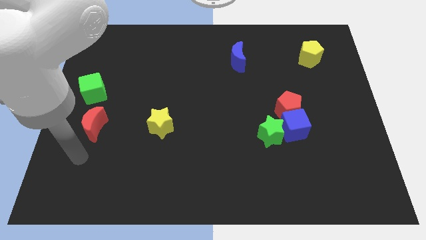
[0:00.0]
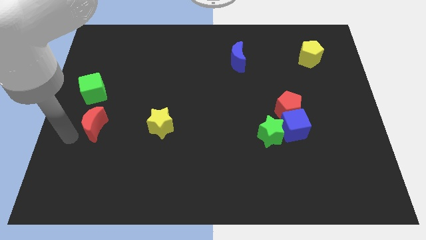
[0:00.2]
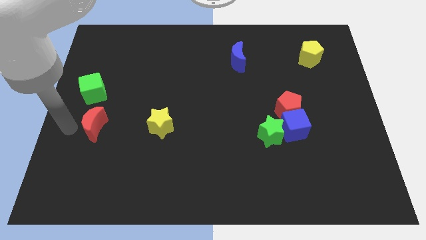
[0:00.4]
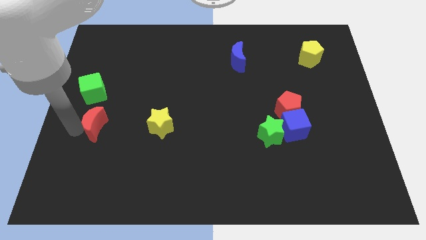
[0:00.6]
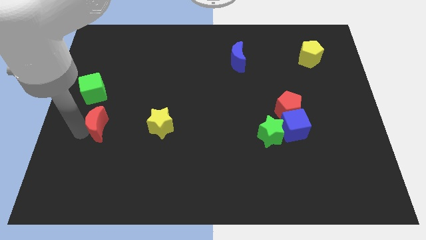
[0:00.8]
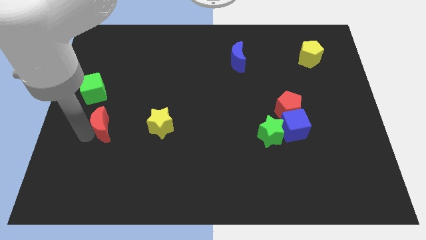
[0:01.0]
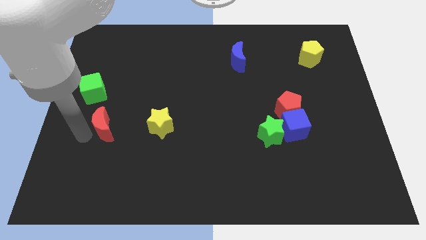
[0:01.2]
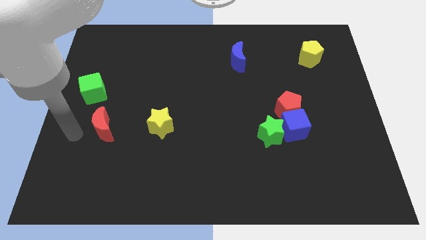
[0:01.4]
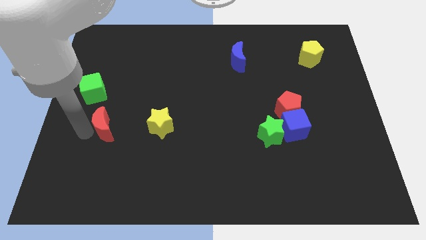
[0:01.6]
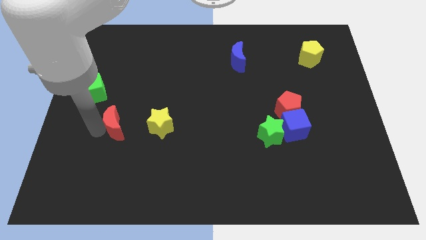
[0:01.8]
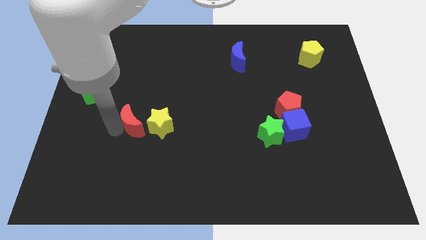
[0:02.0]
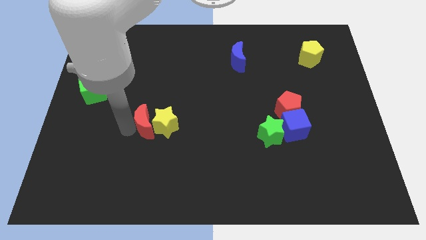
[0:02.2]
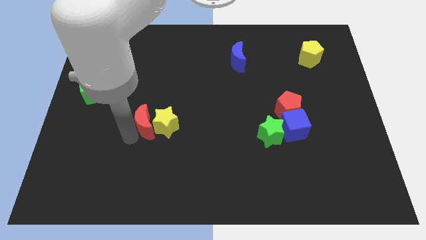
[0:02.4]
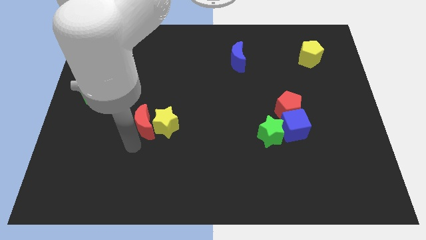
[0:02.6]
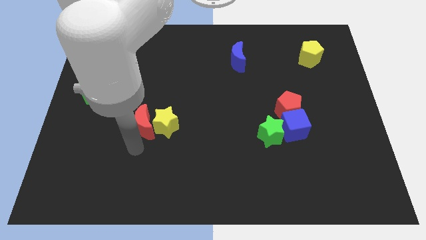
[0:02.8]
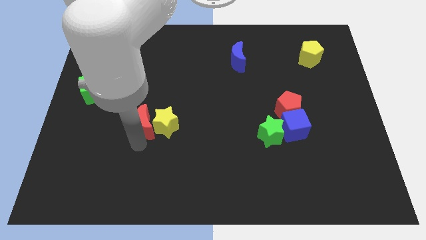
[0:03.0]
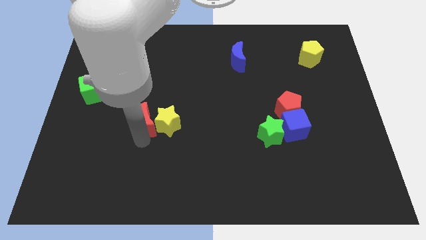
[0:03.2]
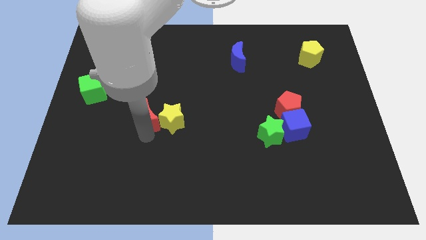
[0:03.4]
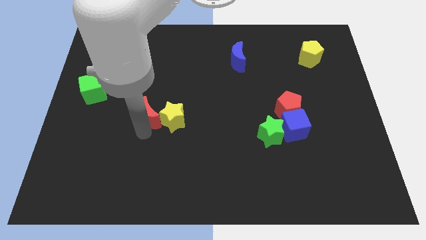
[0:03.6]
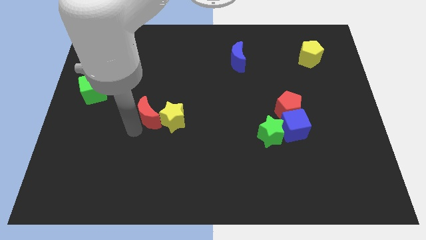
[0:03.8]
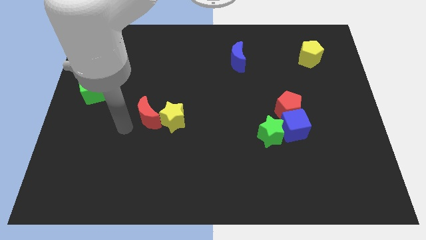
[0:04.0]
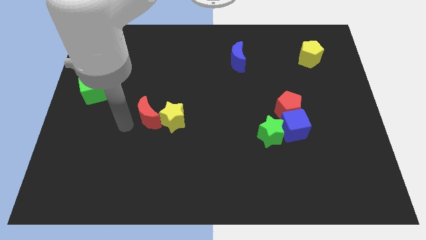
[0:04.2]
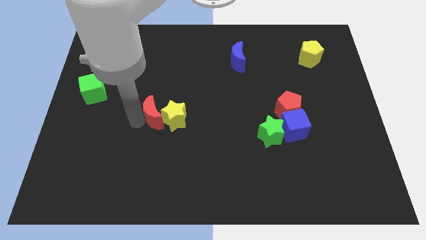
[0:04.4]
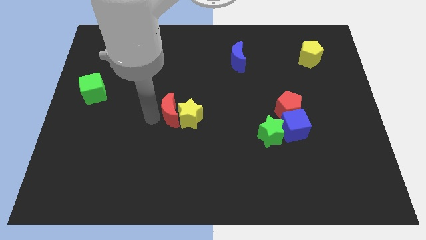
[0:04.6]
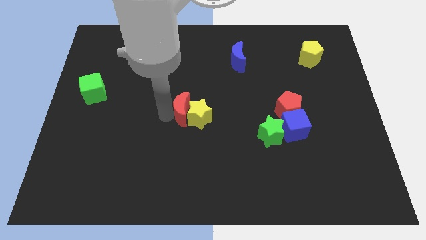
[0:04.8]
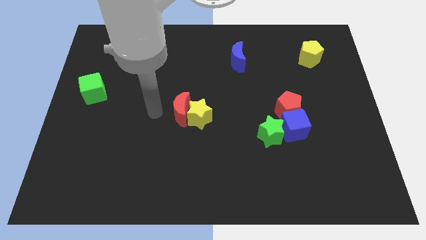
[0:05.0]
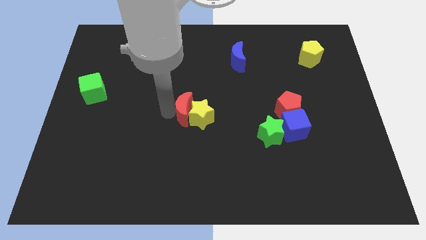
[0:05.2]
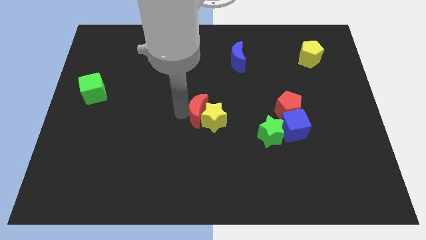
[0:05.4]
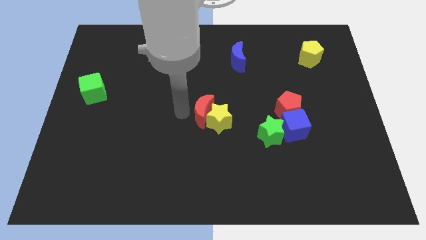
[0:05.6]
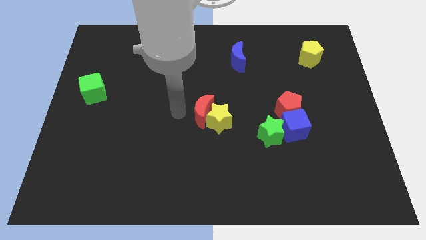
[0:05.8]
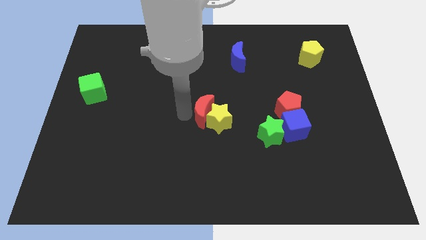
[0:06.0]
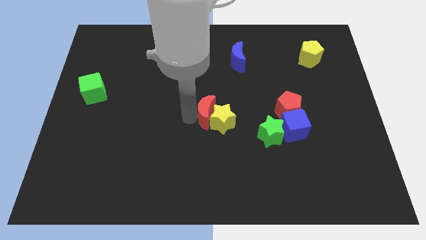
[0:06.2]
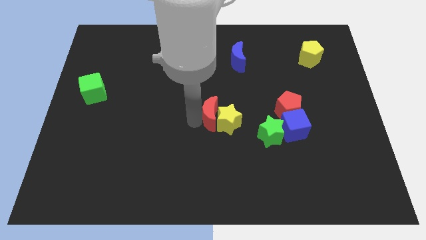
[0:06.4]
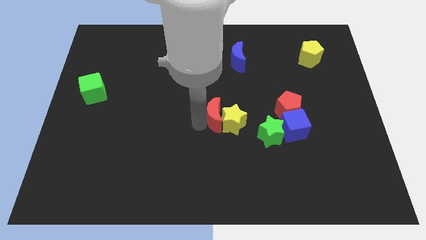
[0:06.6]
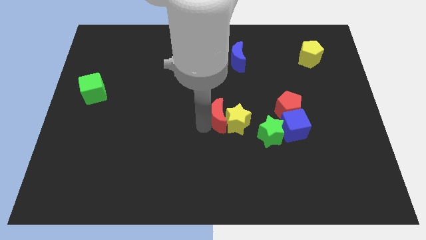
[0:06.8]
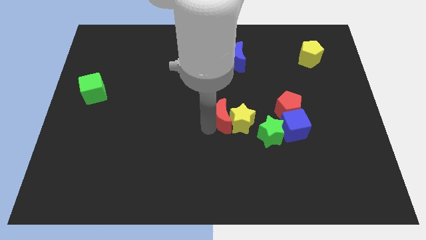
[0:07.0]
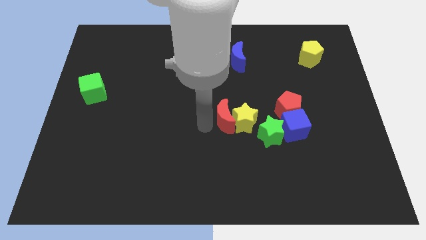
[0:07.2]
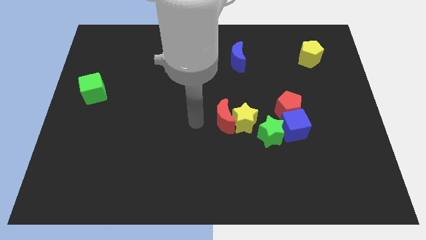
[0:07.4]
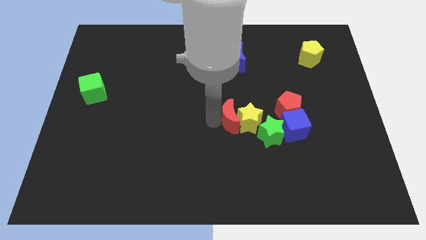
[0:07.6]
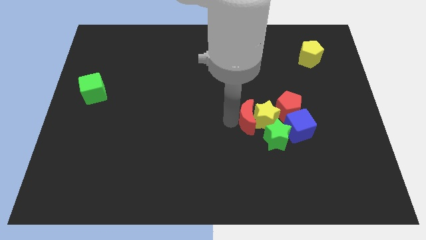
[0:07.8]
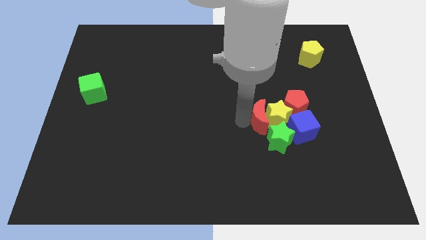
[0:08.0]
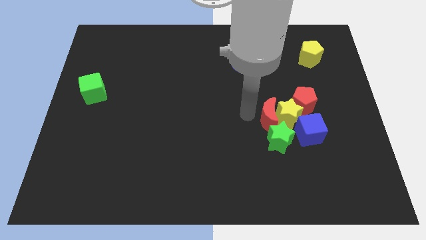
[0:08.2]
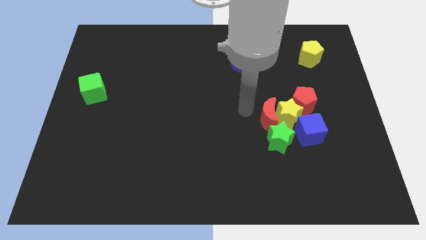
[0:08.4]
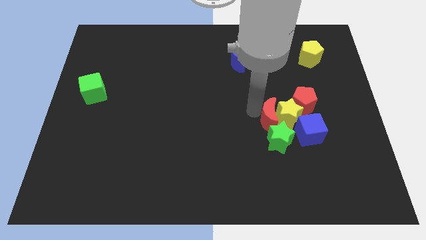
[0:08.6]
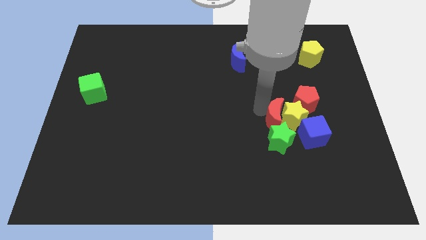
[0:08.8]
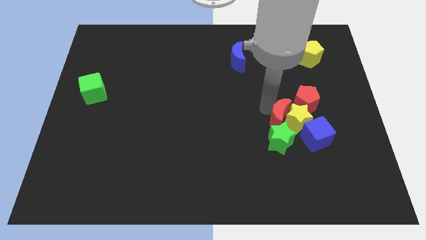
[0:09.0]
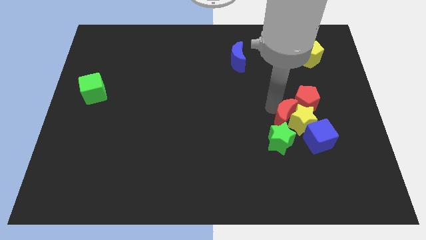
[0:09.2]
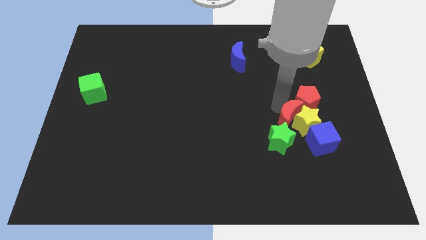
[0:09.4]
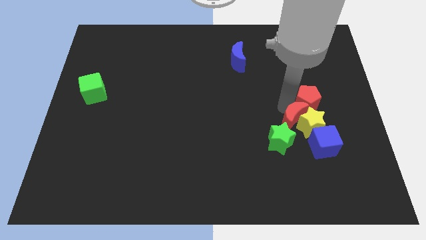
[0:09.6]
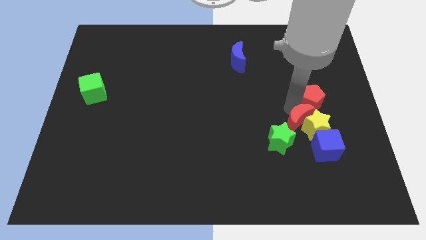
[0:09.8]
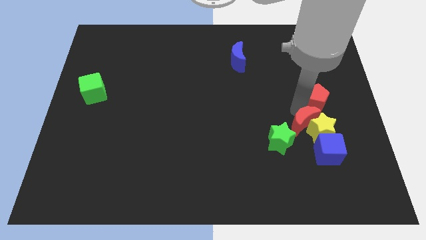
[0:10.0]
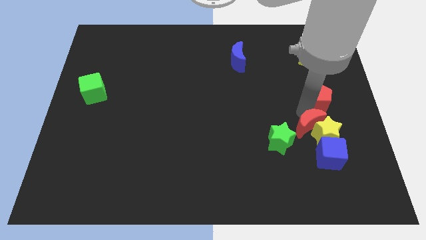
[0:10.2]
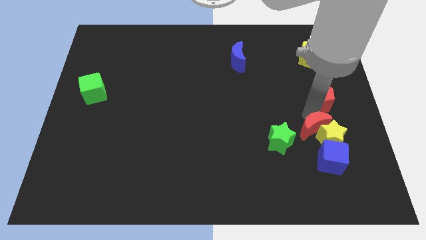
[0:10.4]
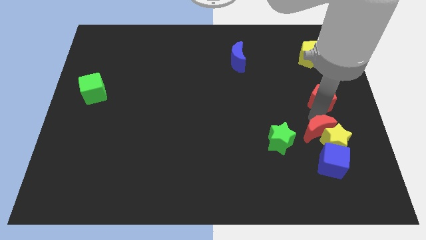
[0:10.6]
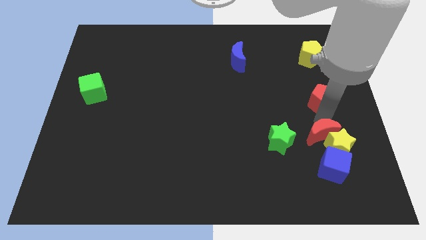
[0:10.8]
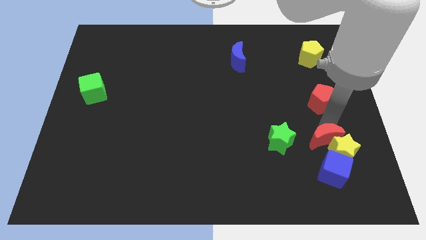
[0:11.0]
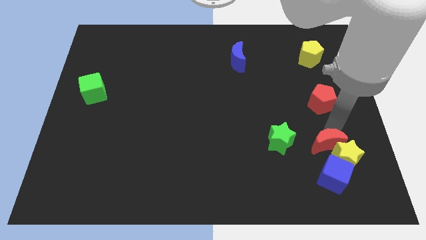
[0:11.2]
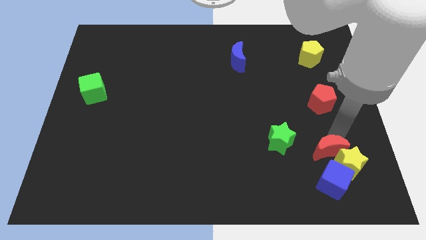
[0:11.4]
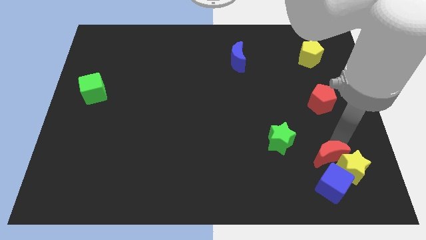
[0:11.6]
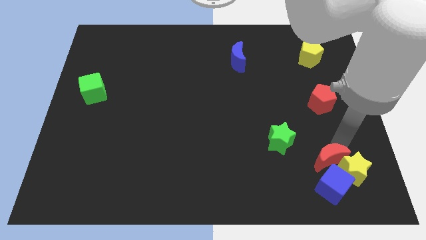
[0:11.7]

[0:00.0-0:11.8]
push the red moon towards the blue cube
